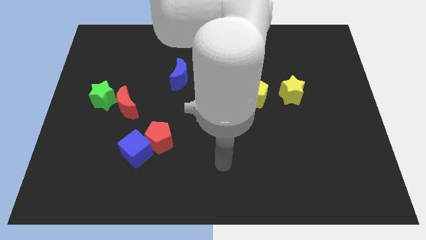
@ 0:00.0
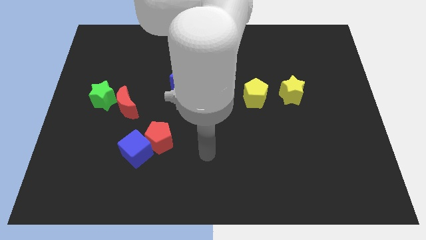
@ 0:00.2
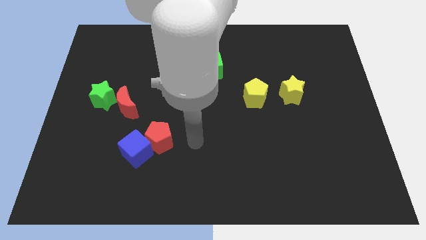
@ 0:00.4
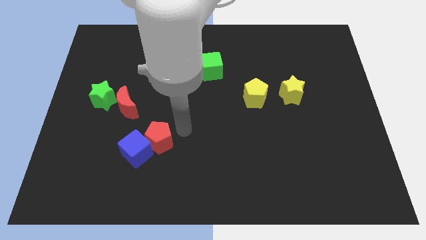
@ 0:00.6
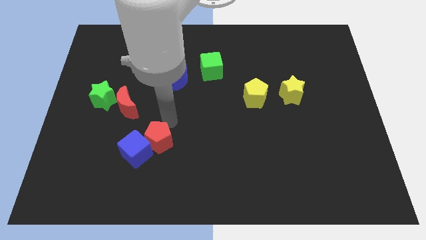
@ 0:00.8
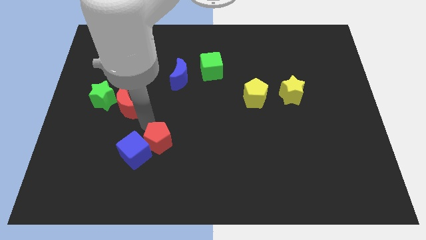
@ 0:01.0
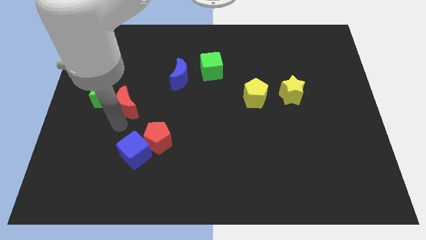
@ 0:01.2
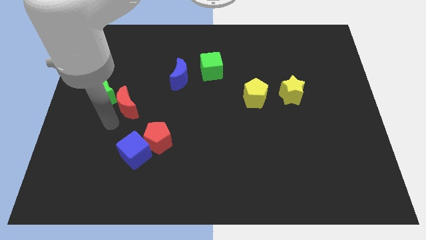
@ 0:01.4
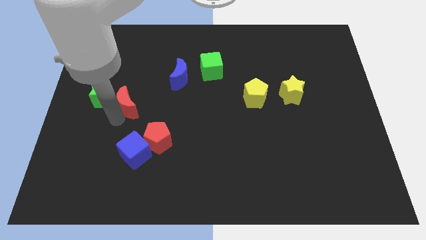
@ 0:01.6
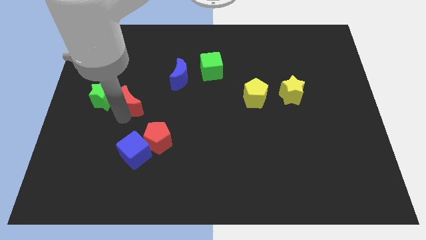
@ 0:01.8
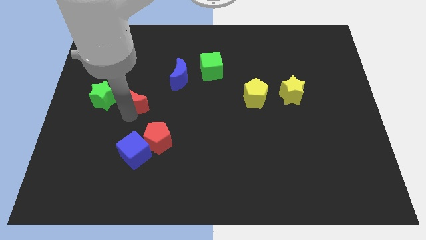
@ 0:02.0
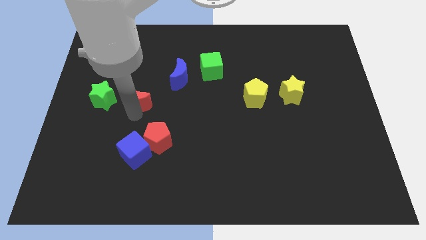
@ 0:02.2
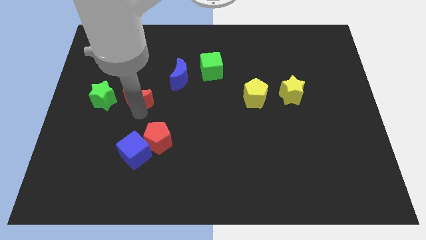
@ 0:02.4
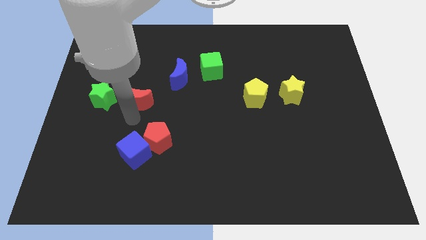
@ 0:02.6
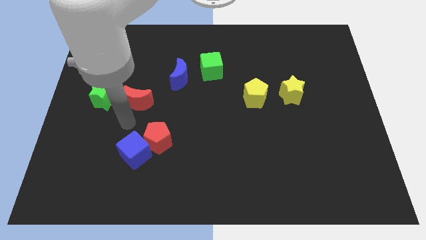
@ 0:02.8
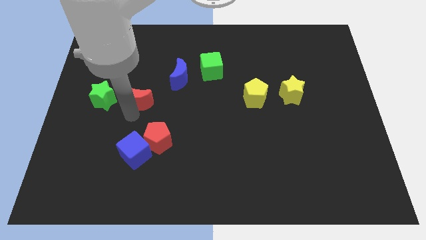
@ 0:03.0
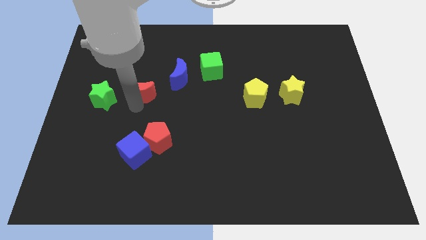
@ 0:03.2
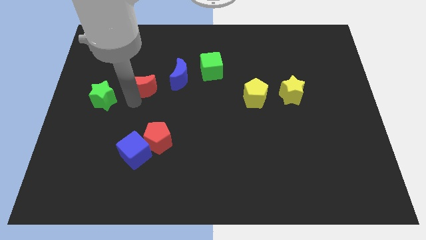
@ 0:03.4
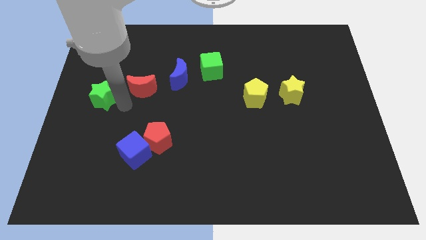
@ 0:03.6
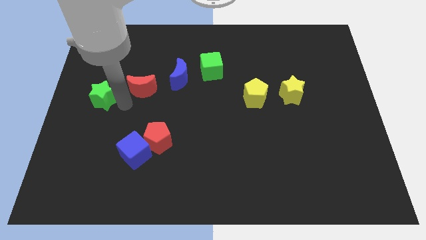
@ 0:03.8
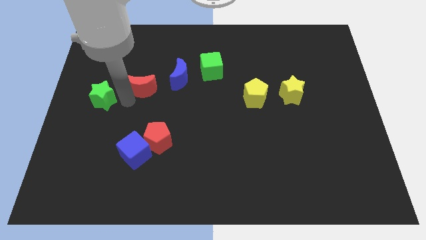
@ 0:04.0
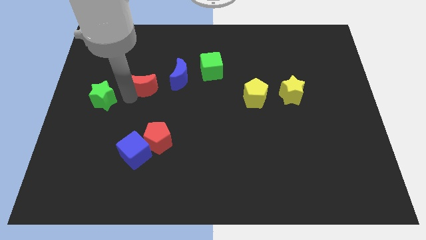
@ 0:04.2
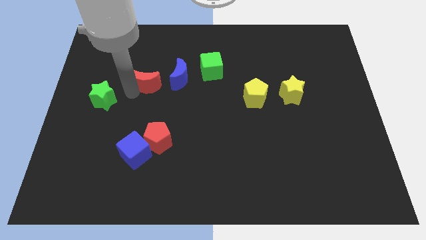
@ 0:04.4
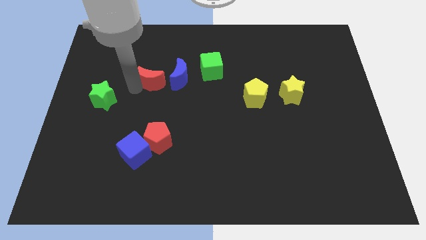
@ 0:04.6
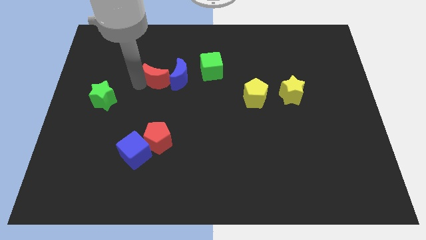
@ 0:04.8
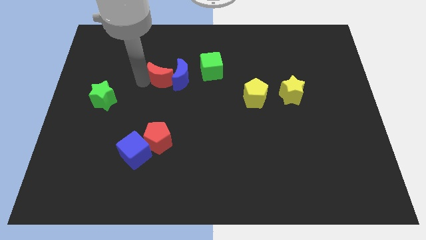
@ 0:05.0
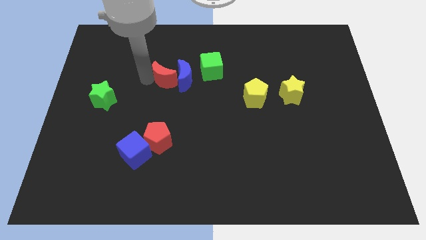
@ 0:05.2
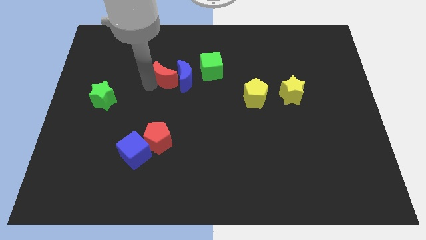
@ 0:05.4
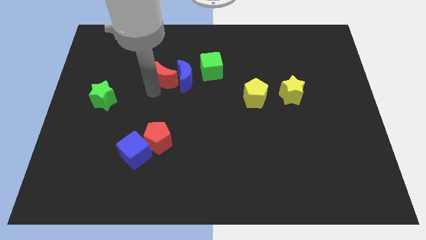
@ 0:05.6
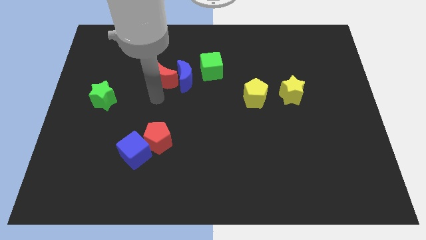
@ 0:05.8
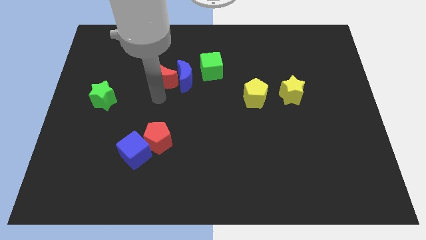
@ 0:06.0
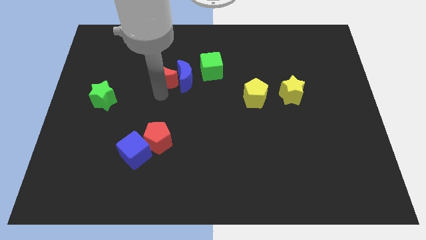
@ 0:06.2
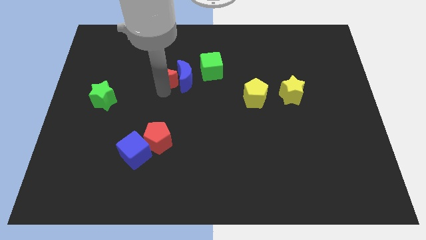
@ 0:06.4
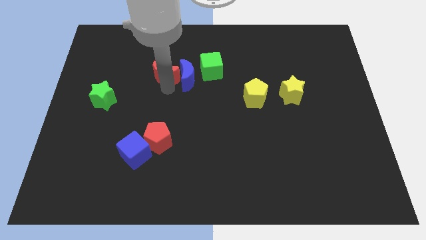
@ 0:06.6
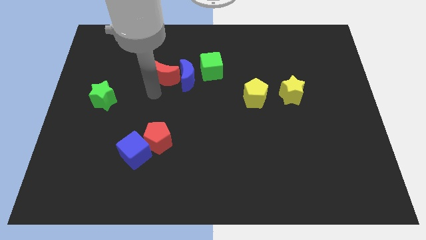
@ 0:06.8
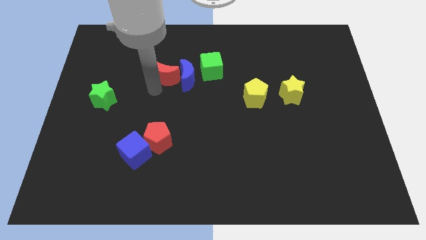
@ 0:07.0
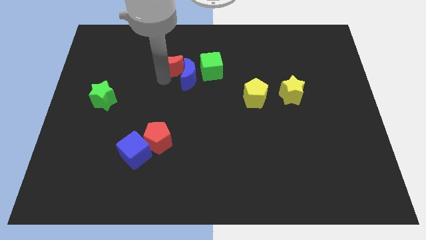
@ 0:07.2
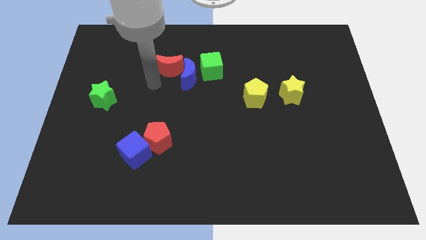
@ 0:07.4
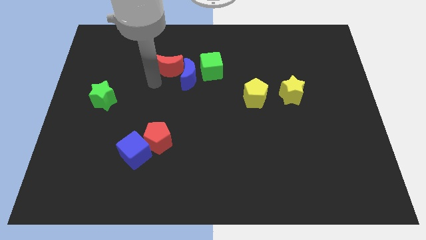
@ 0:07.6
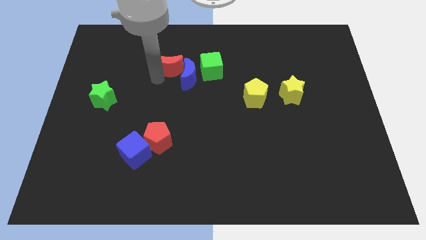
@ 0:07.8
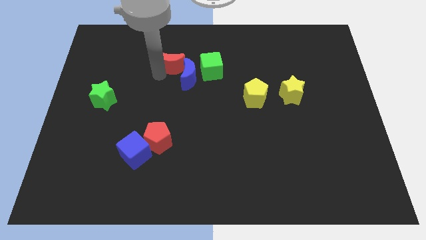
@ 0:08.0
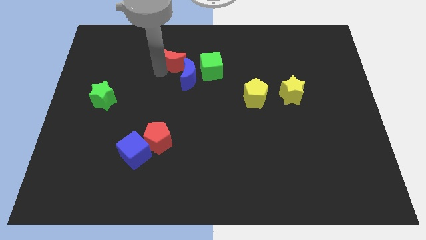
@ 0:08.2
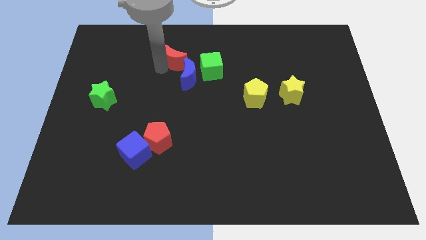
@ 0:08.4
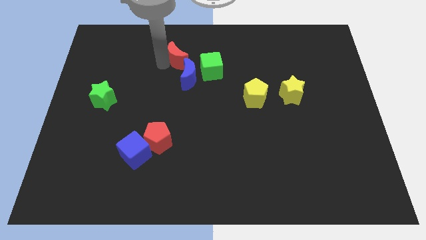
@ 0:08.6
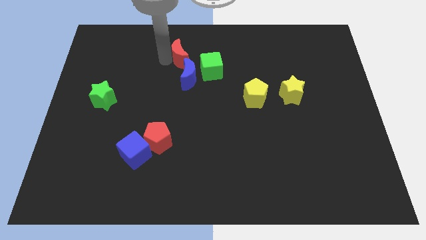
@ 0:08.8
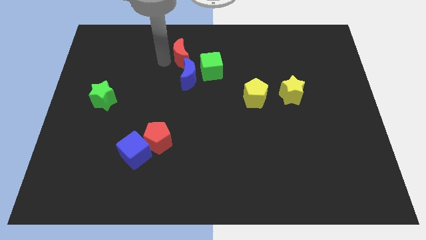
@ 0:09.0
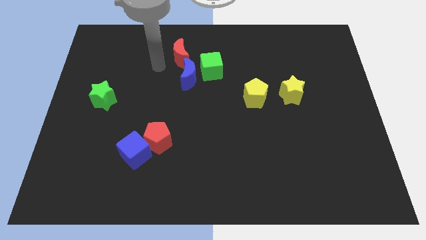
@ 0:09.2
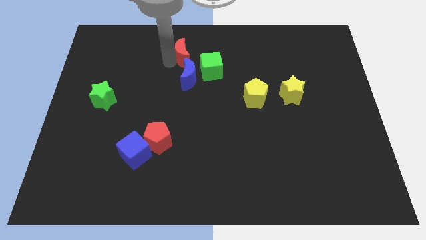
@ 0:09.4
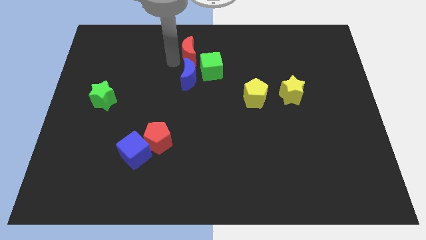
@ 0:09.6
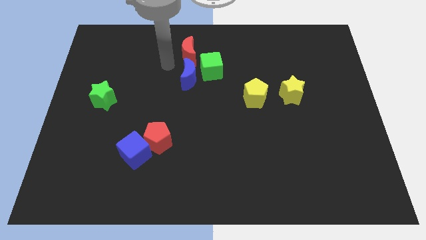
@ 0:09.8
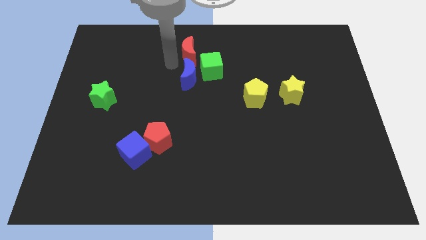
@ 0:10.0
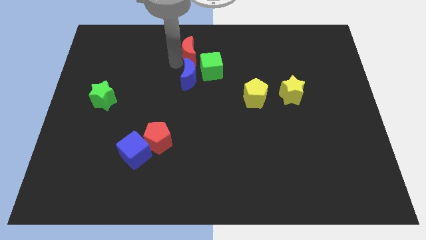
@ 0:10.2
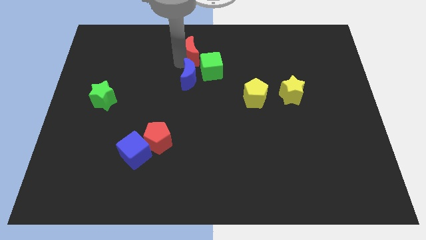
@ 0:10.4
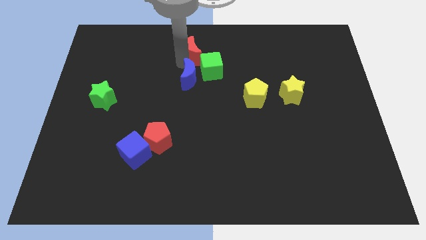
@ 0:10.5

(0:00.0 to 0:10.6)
put the red moon to the towards your base

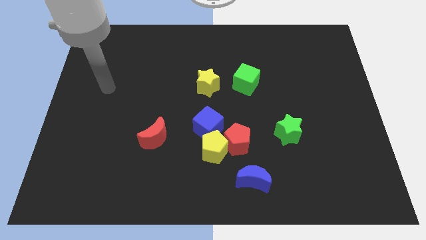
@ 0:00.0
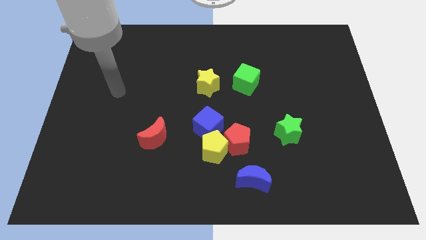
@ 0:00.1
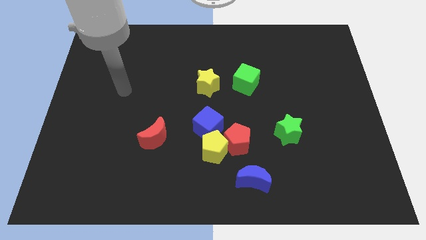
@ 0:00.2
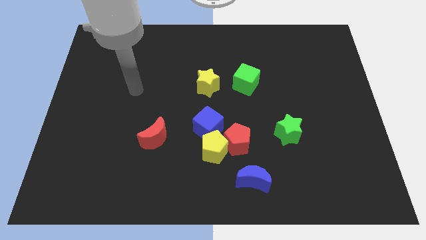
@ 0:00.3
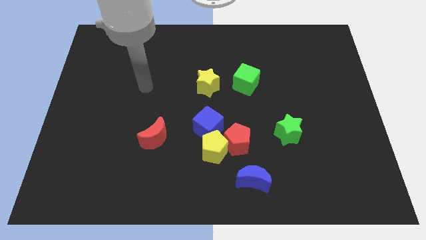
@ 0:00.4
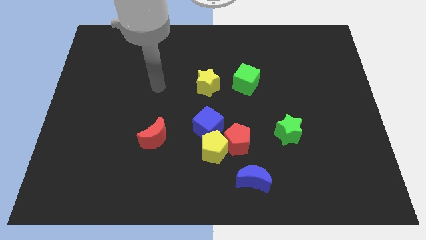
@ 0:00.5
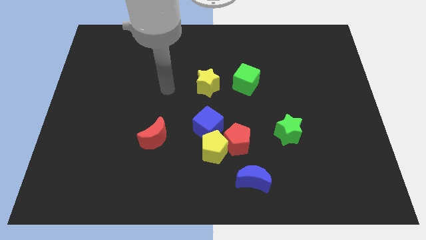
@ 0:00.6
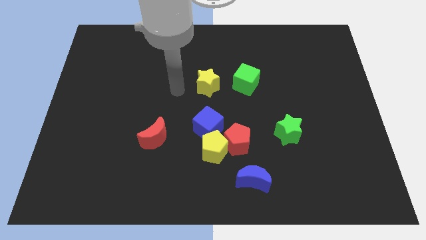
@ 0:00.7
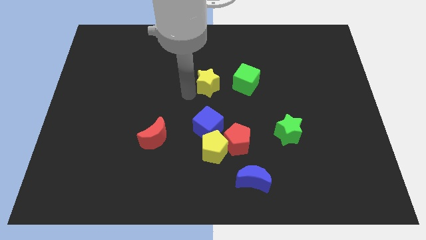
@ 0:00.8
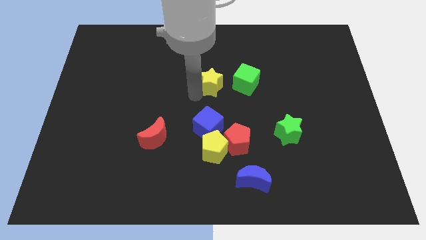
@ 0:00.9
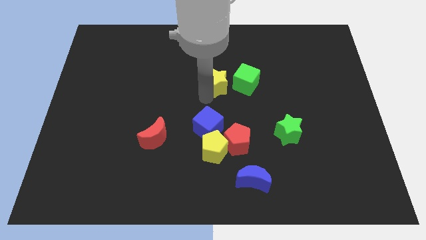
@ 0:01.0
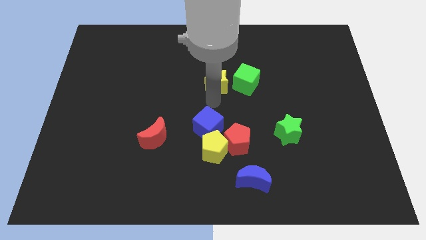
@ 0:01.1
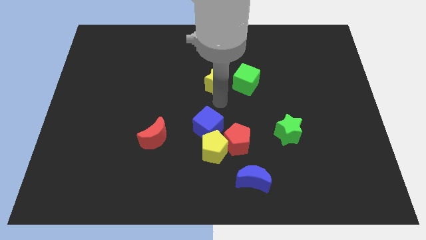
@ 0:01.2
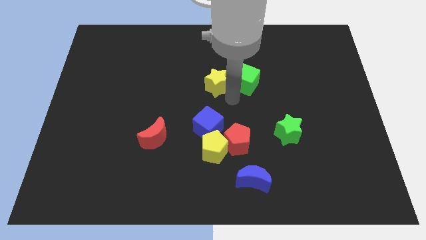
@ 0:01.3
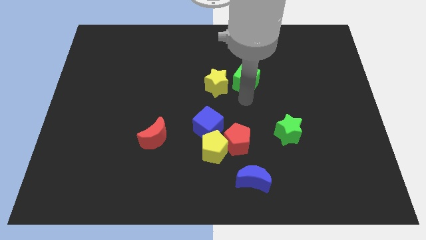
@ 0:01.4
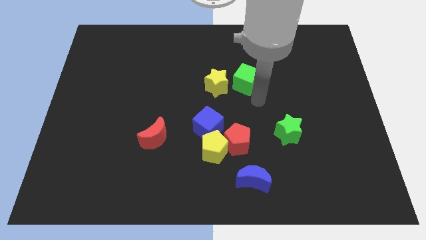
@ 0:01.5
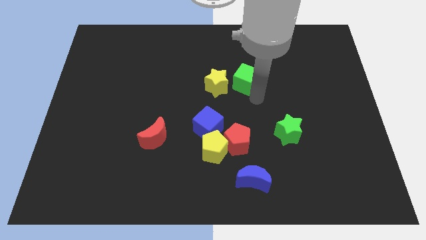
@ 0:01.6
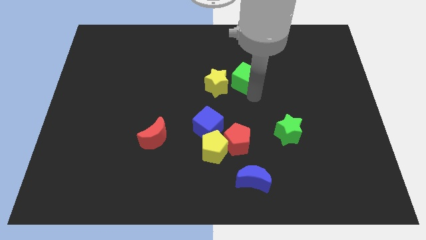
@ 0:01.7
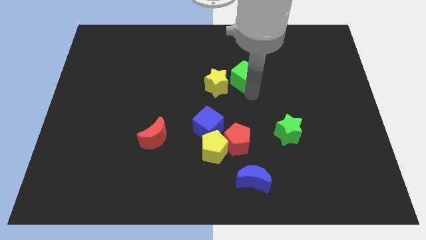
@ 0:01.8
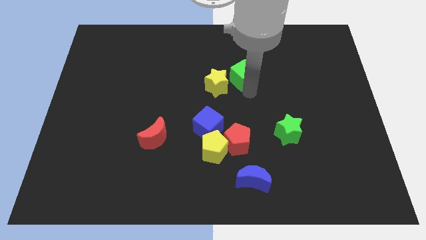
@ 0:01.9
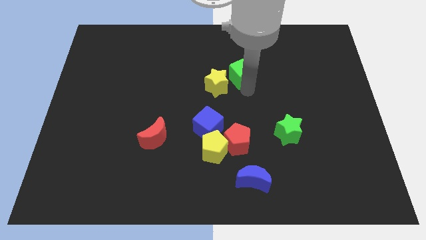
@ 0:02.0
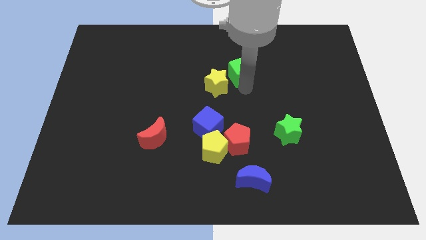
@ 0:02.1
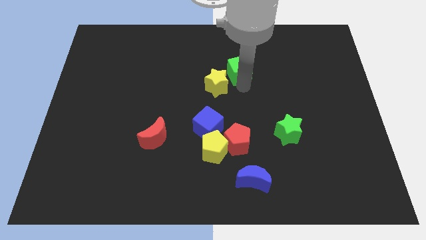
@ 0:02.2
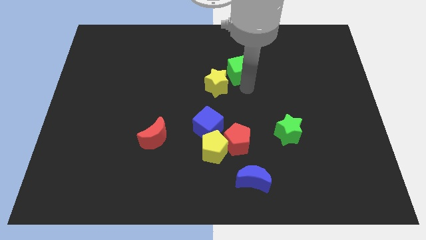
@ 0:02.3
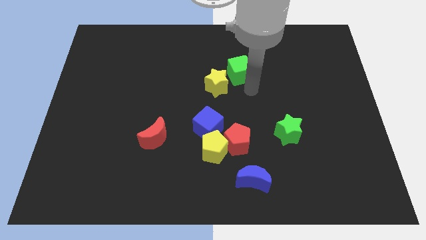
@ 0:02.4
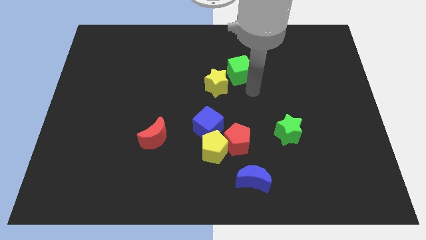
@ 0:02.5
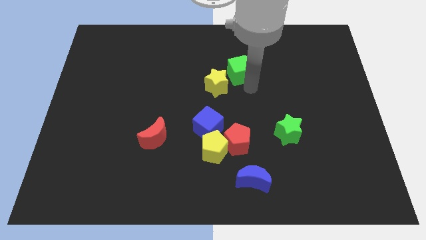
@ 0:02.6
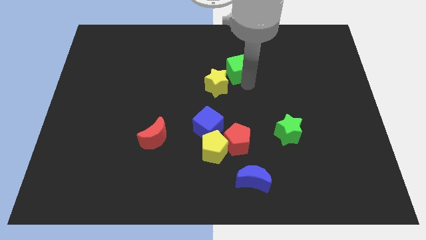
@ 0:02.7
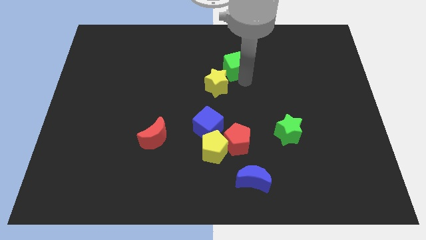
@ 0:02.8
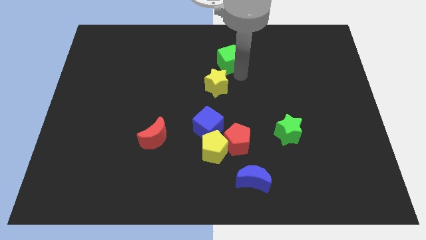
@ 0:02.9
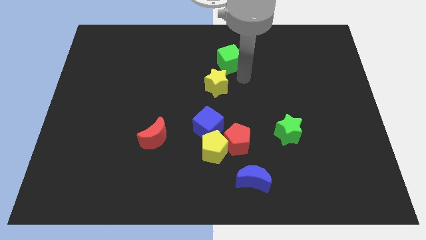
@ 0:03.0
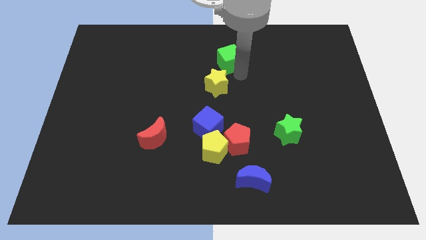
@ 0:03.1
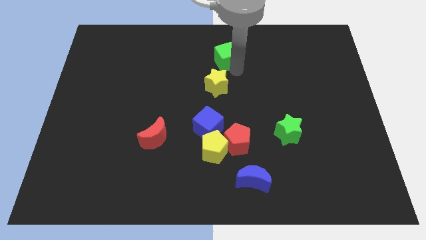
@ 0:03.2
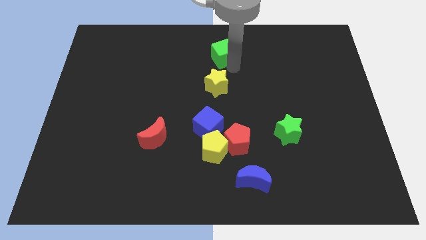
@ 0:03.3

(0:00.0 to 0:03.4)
put the green cube to the top
